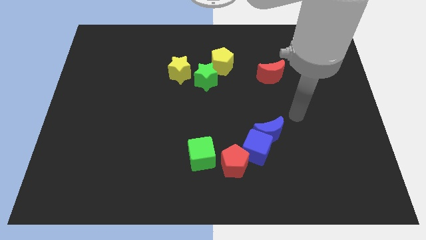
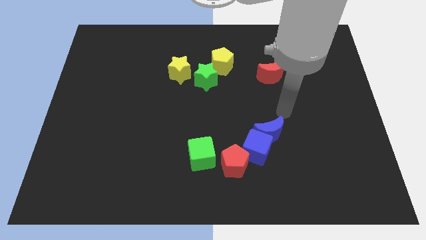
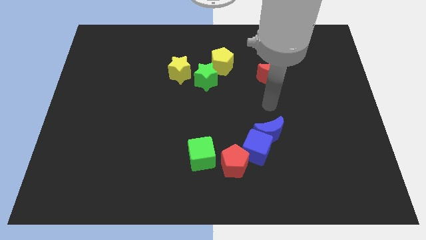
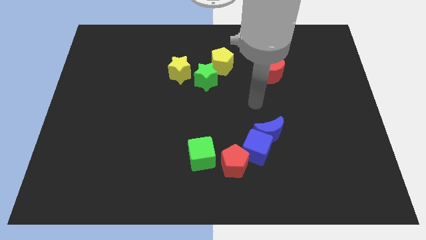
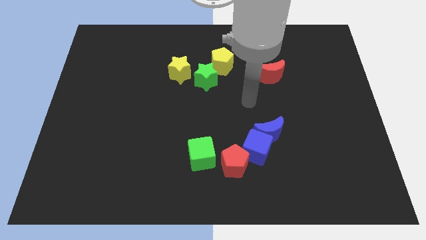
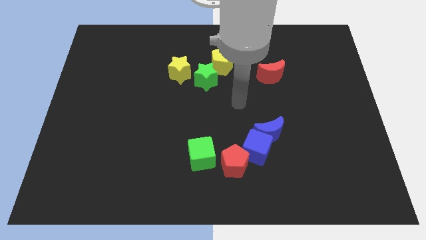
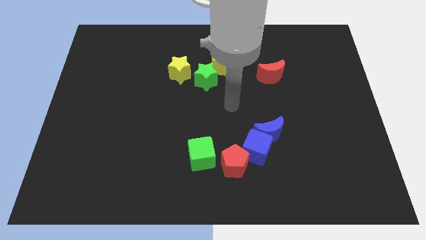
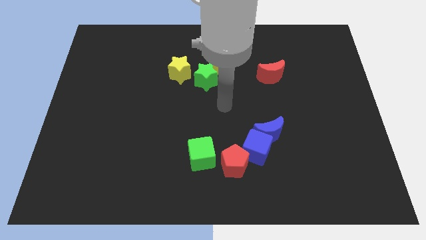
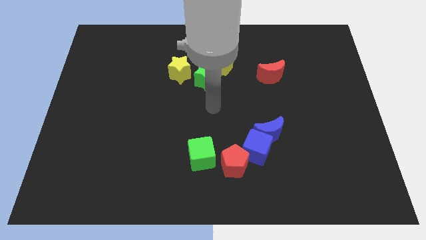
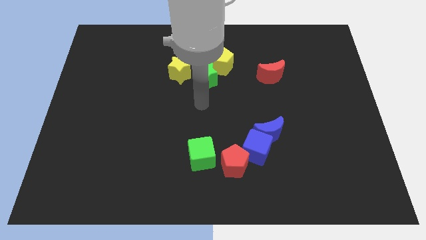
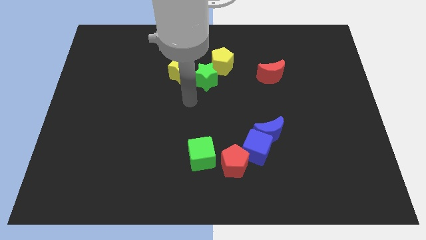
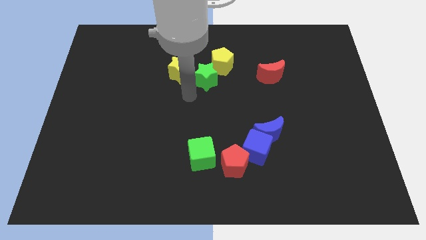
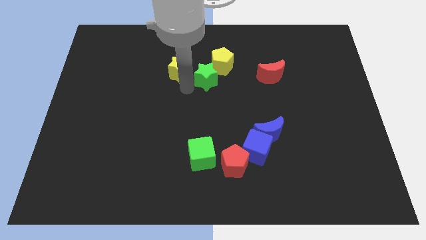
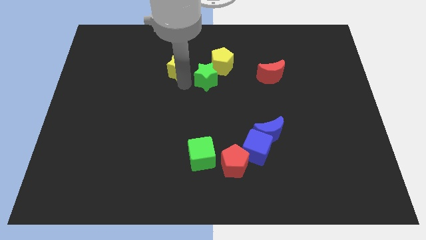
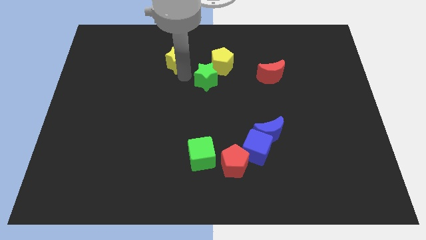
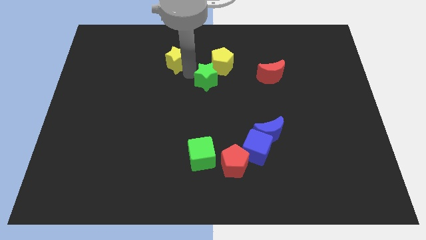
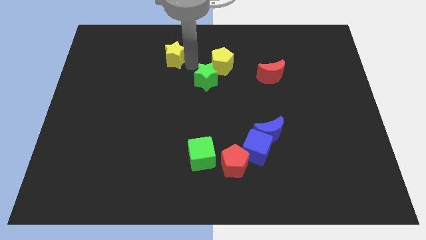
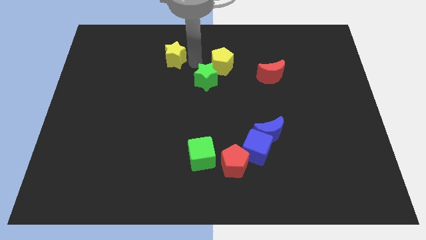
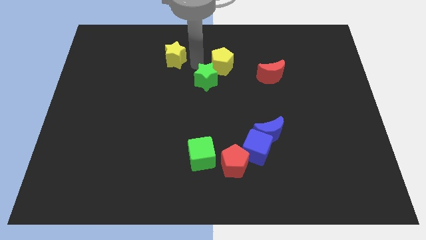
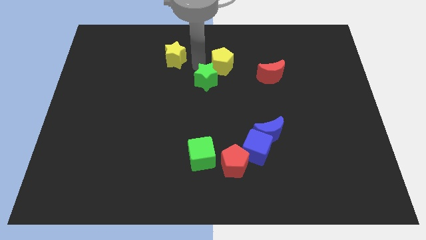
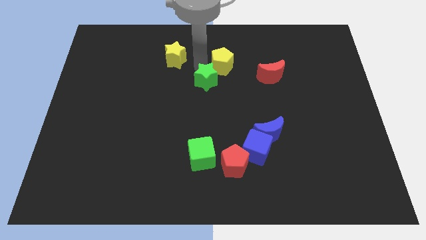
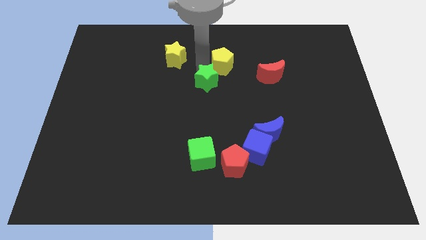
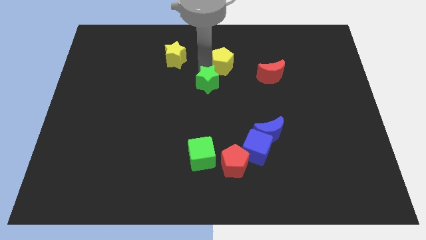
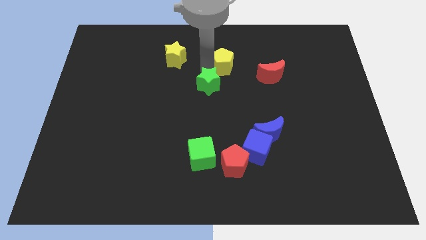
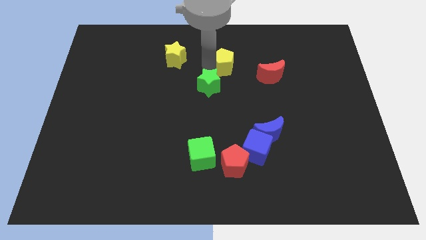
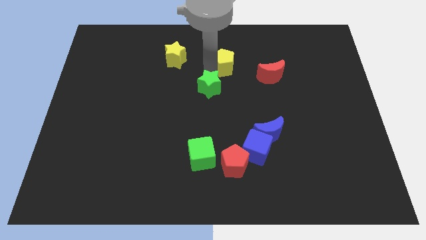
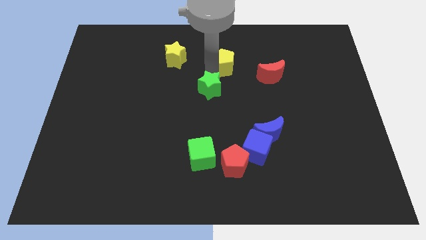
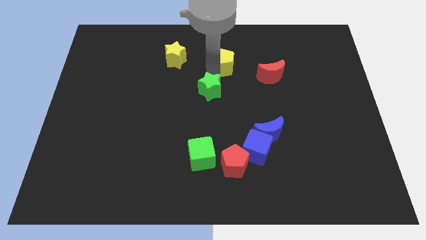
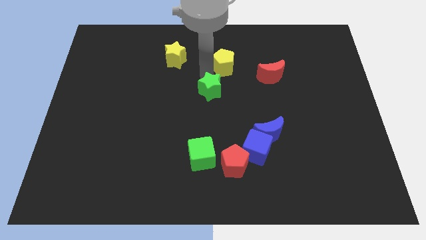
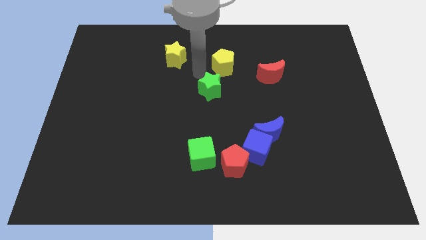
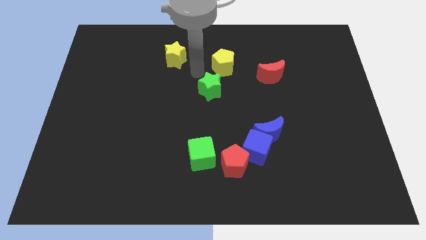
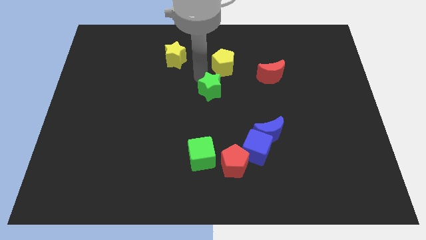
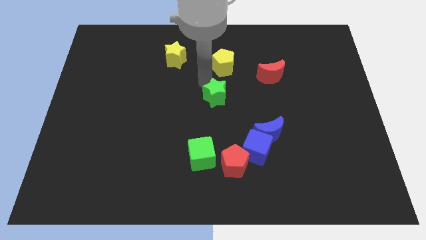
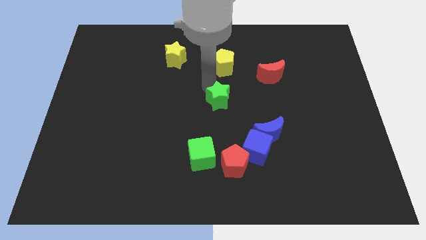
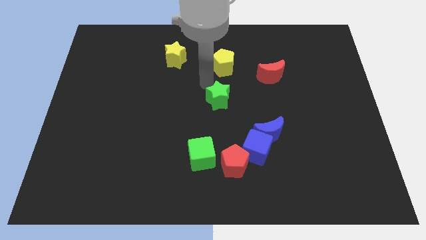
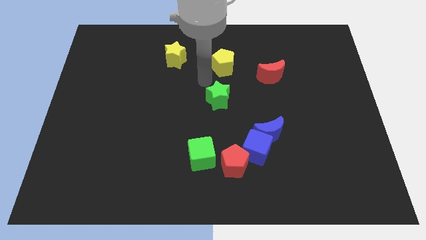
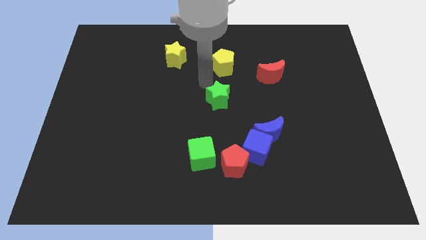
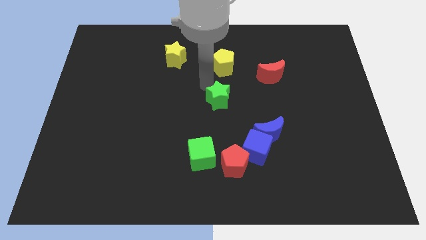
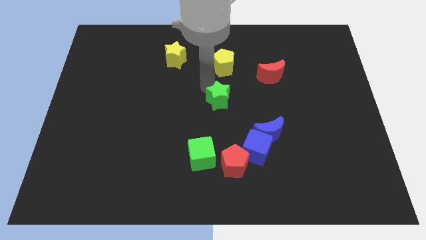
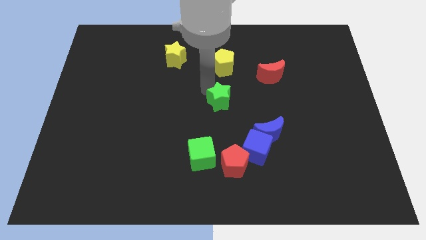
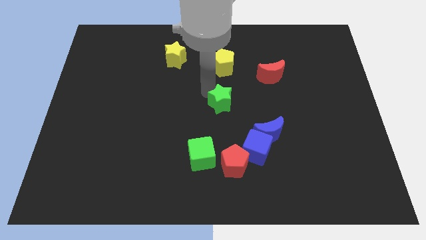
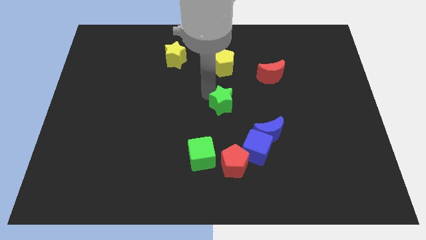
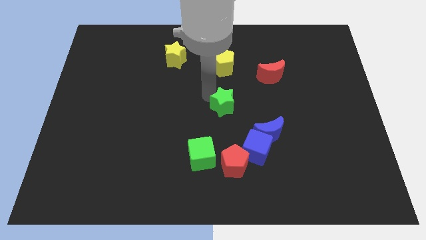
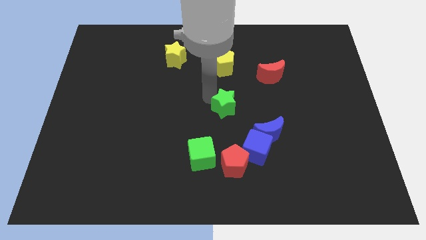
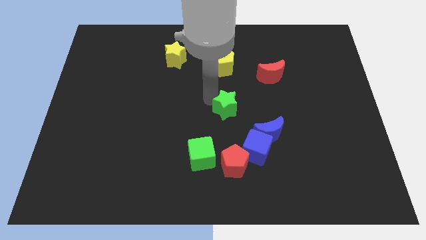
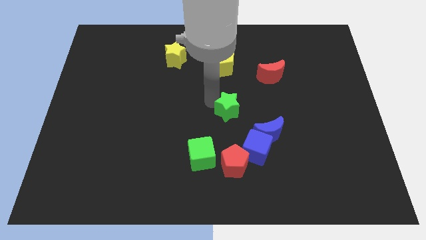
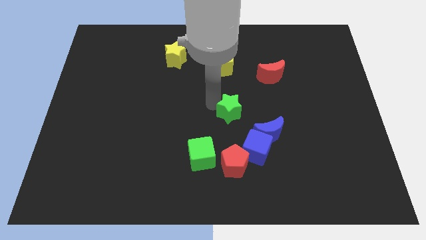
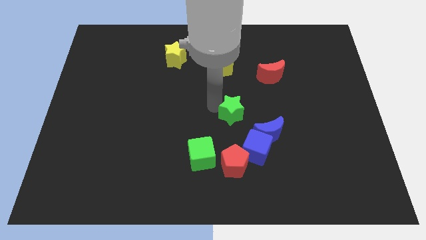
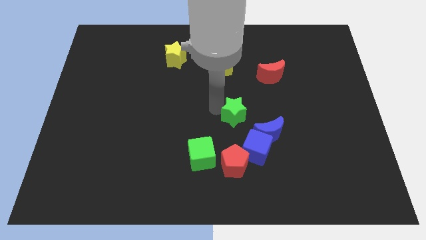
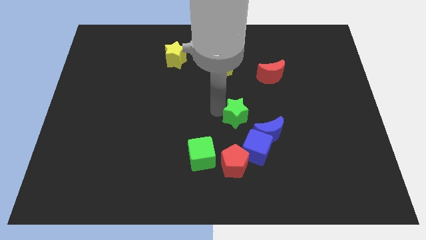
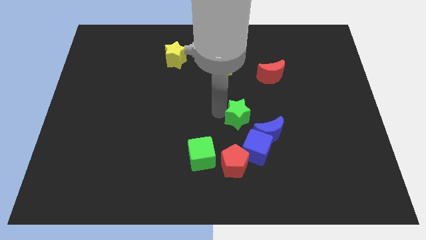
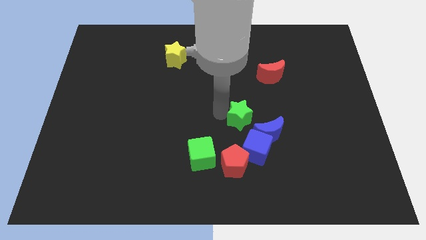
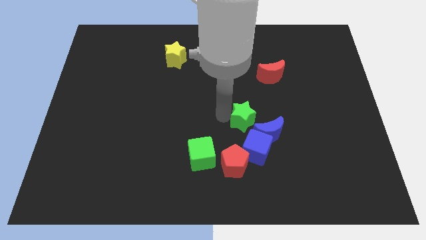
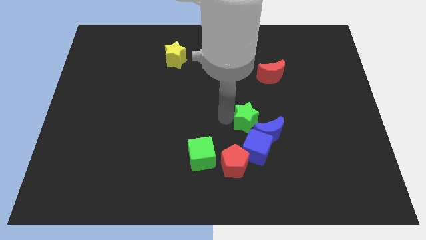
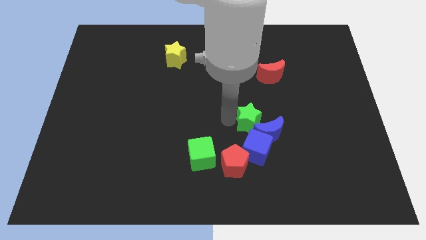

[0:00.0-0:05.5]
slide the green star towards the blue moon

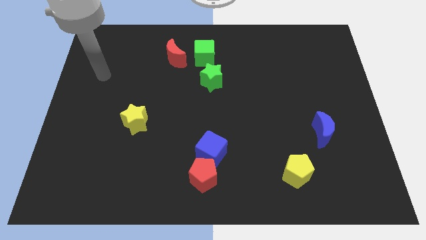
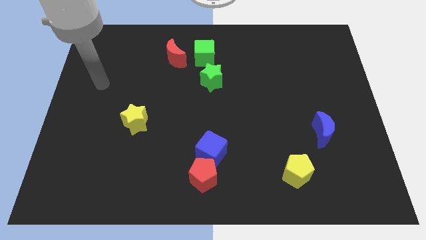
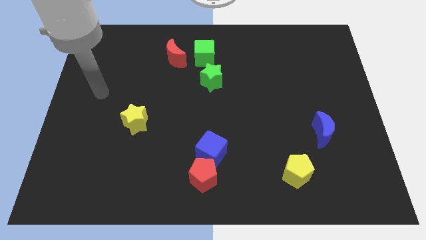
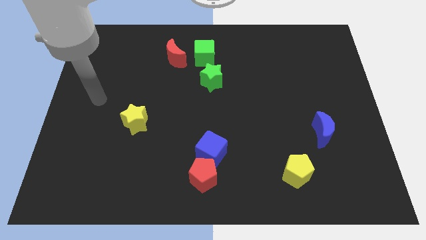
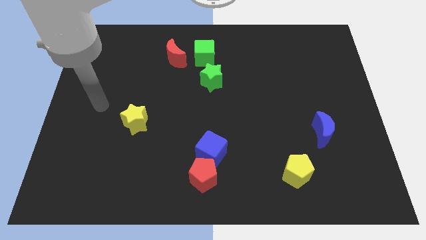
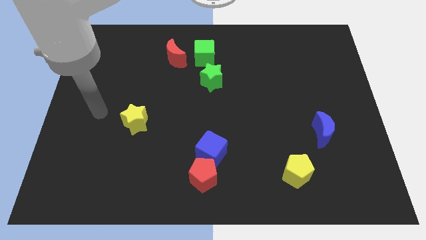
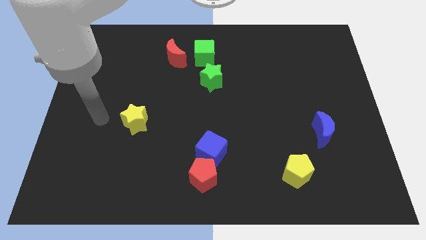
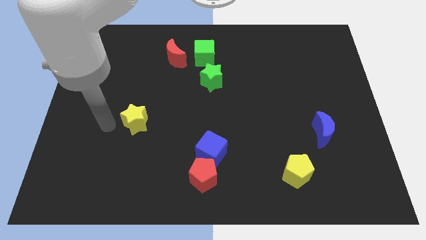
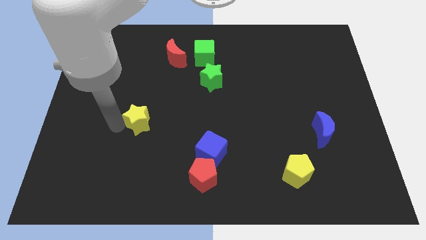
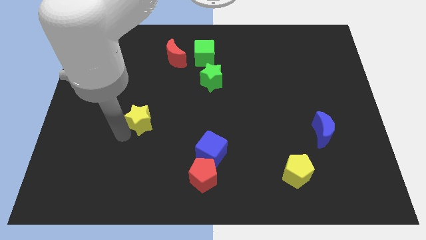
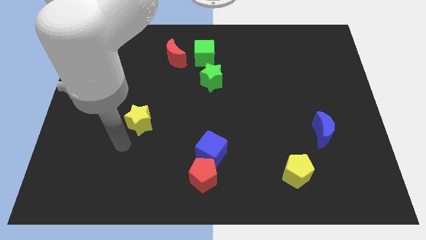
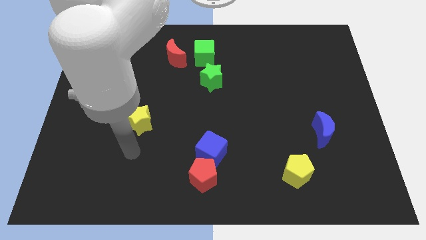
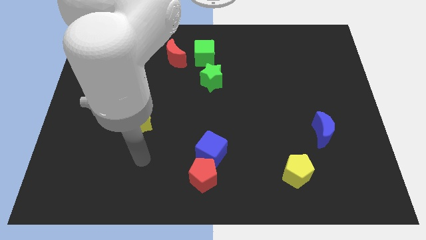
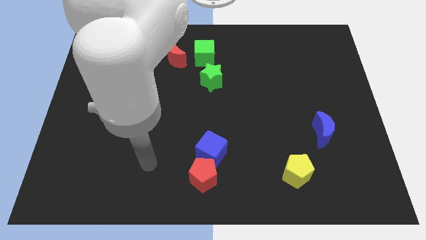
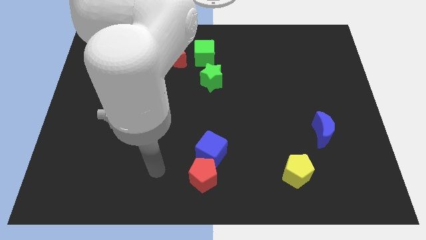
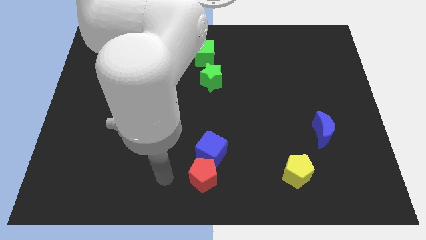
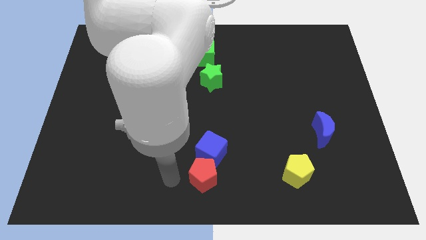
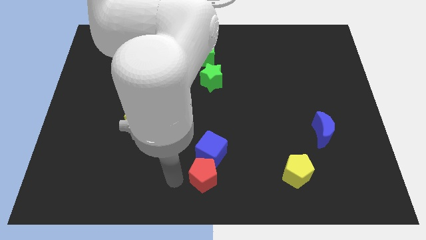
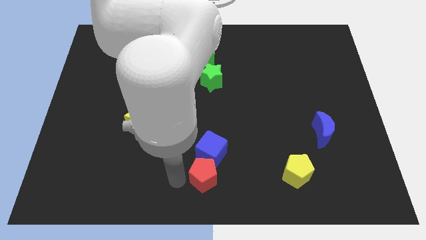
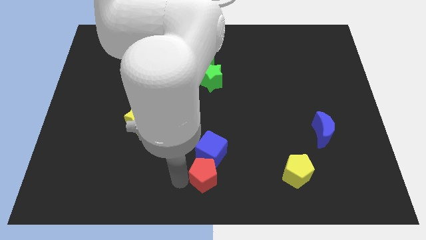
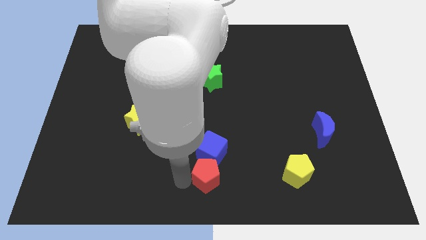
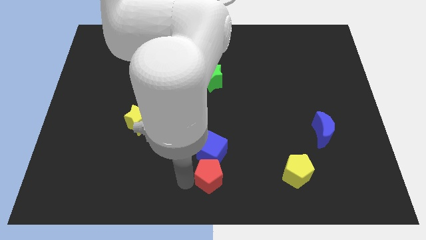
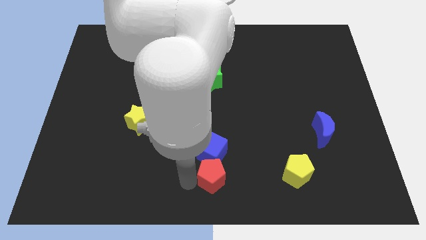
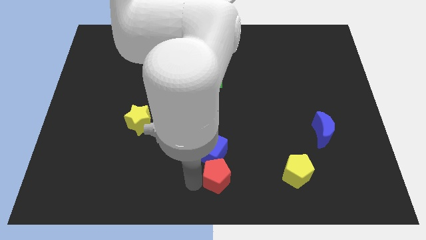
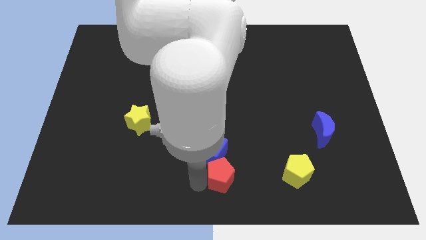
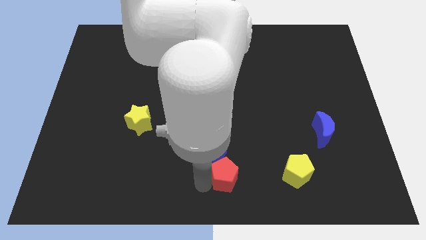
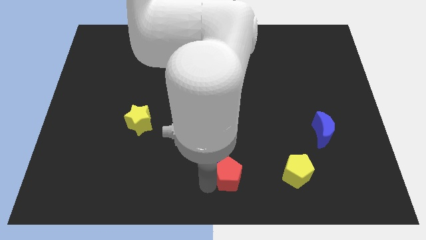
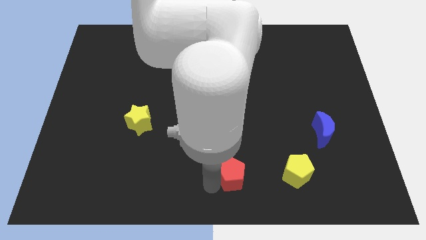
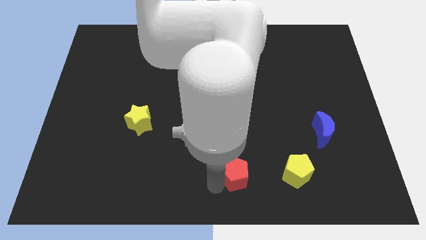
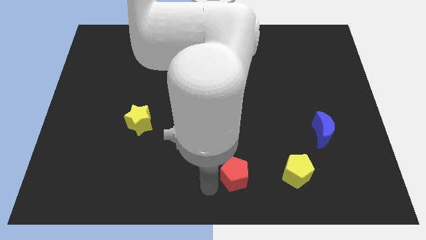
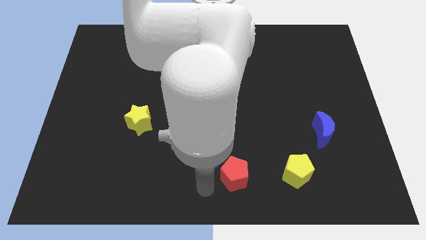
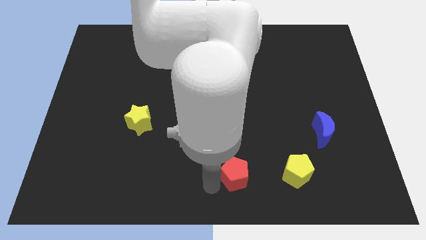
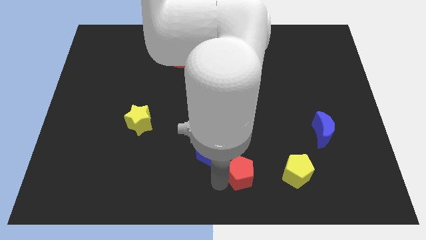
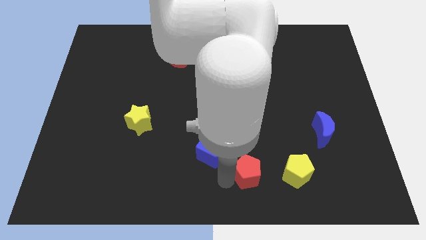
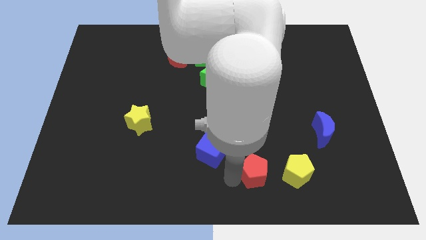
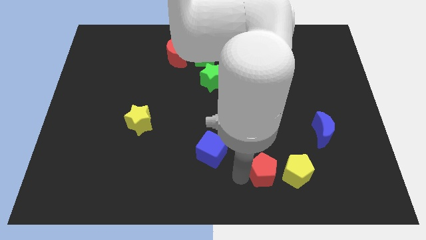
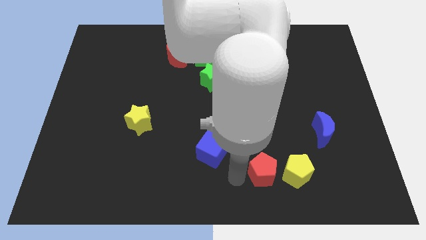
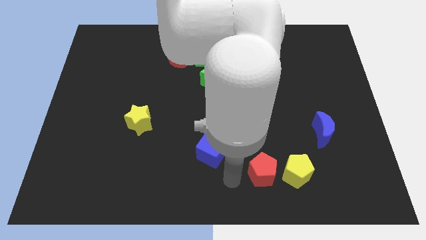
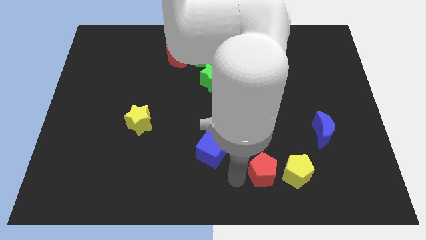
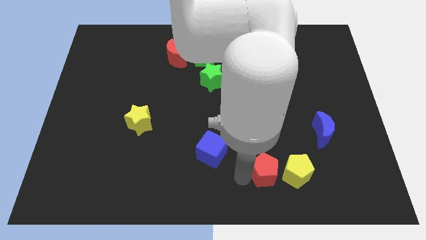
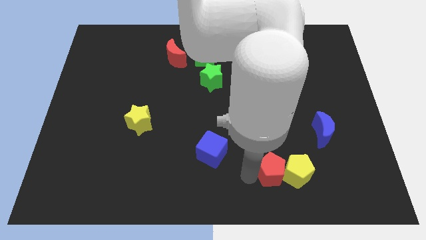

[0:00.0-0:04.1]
slide the red pentagon towards the yellow pentagon
